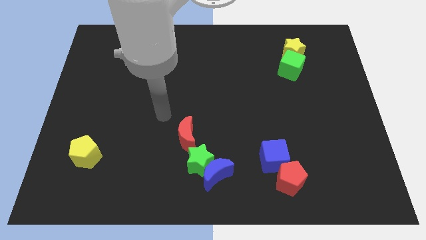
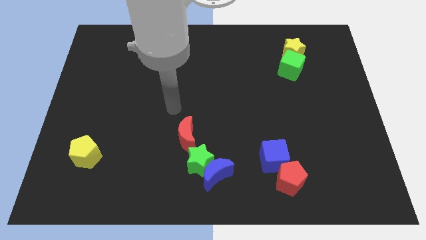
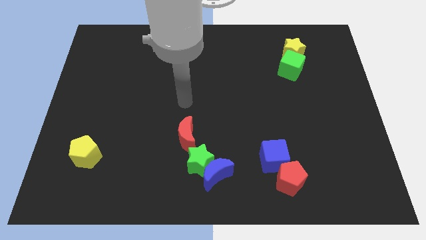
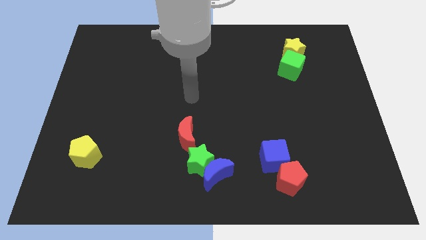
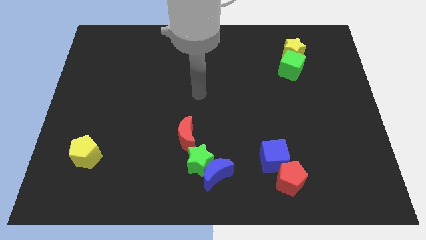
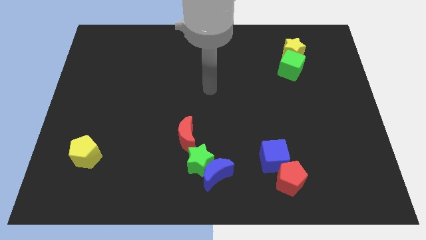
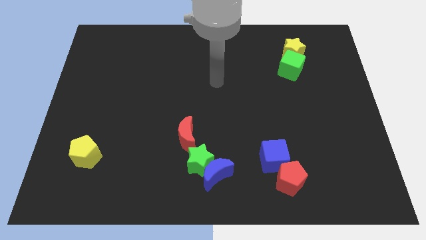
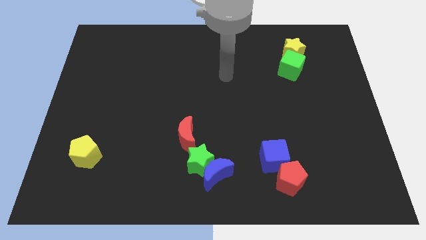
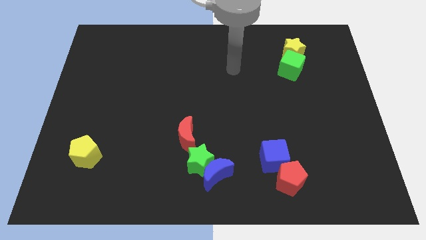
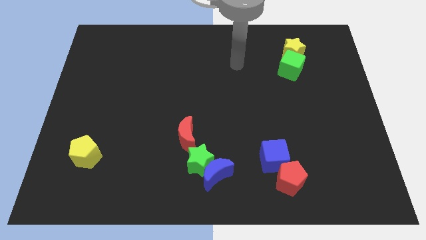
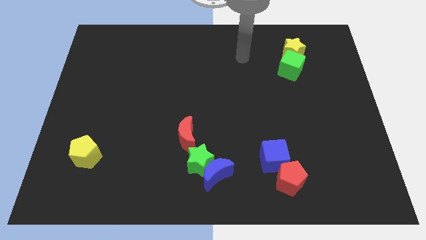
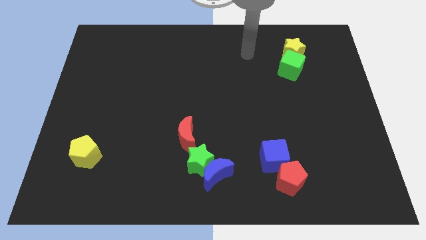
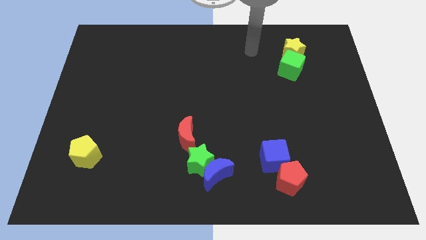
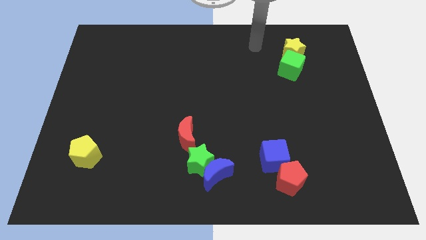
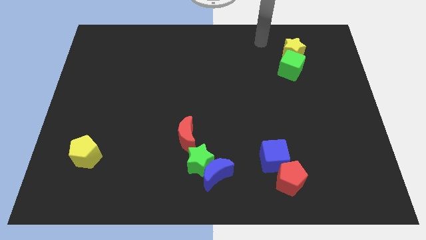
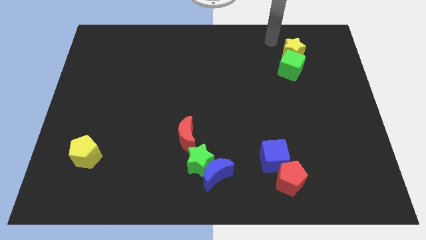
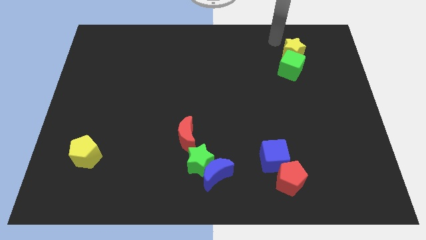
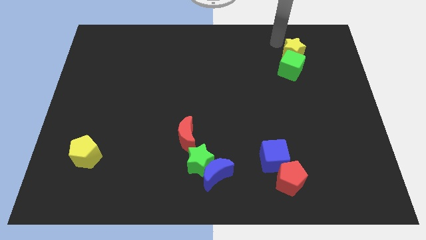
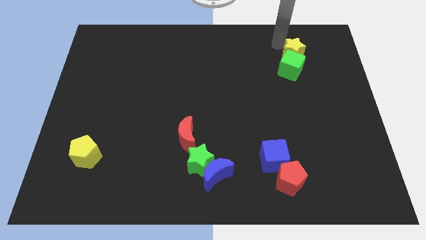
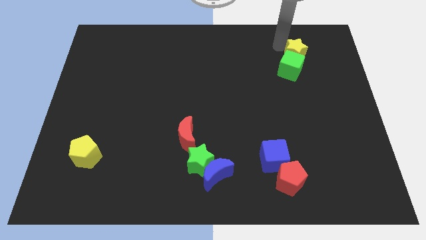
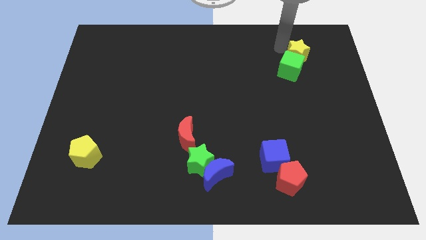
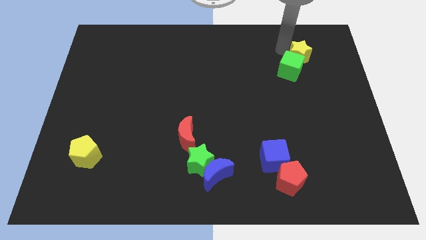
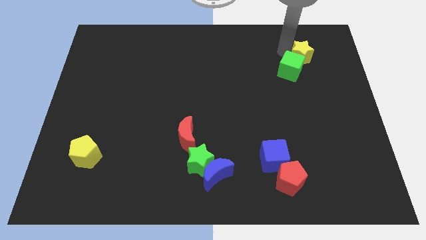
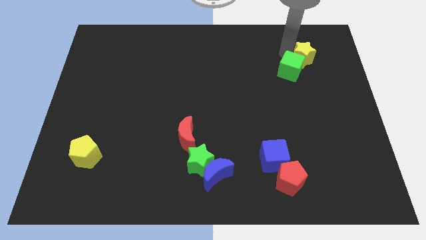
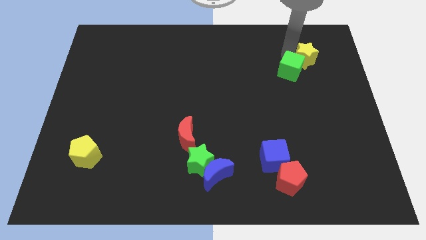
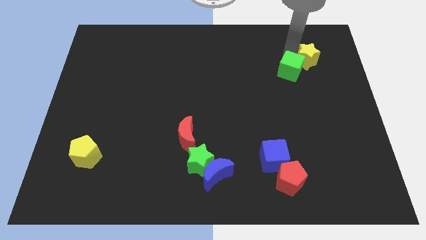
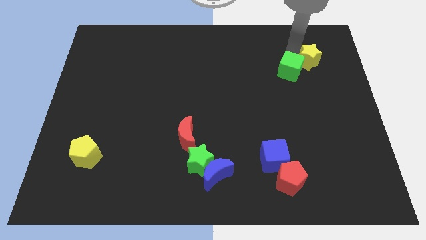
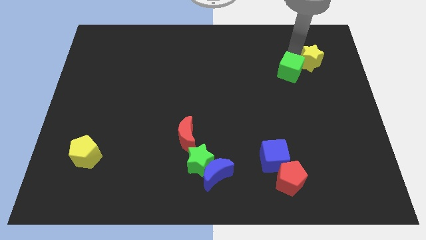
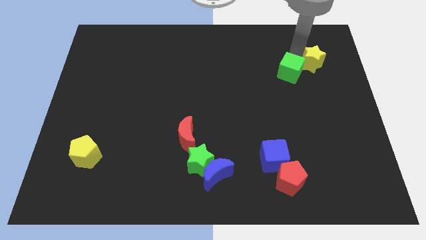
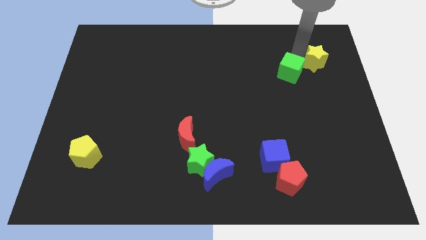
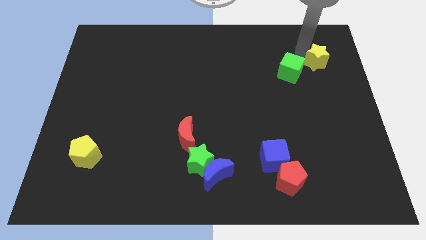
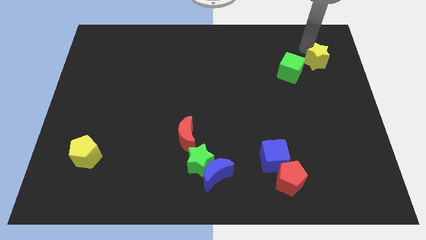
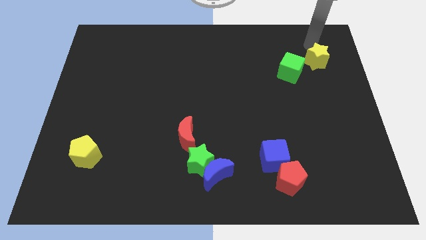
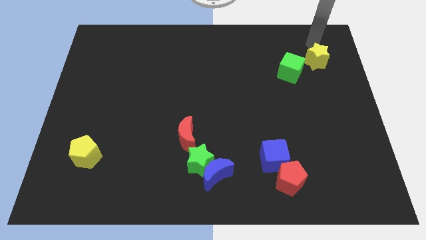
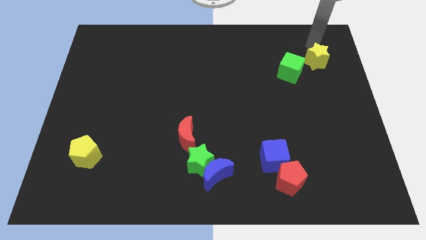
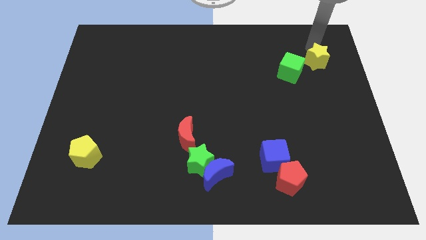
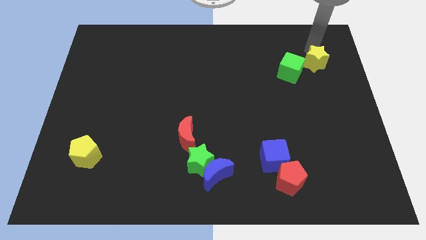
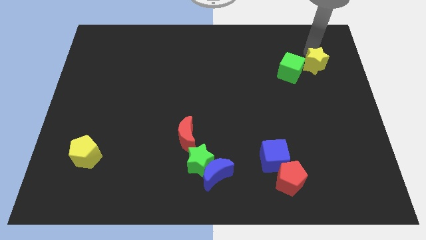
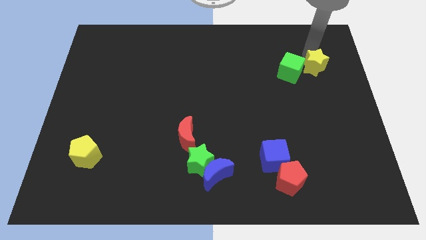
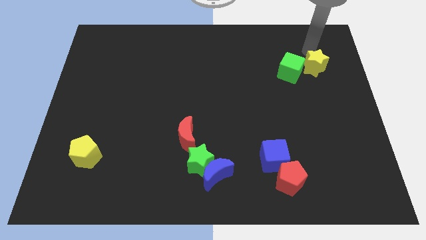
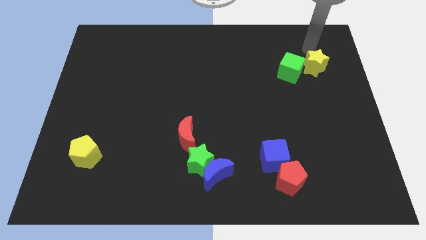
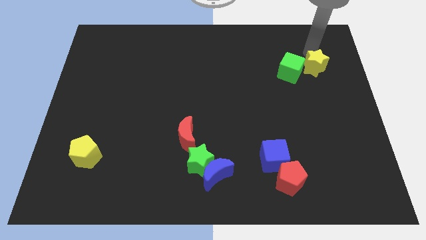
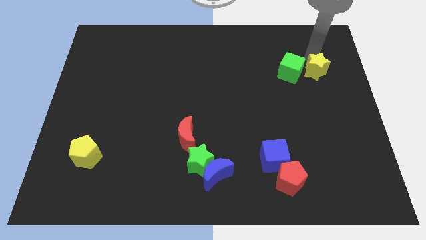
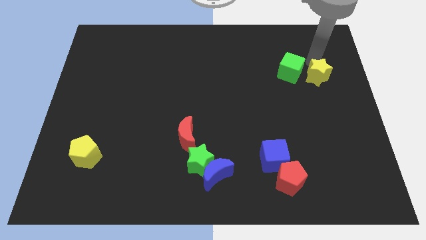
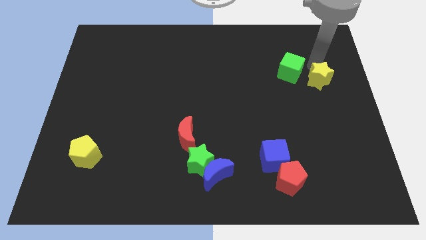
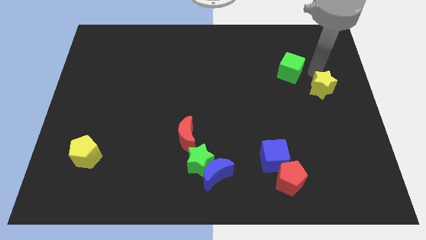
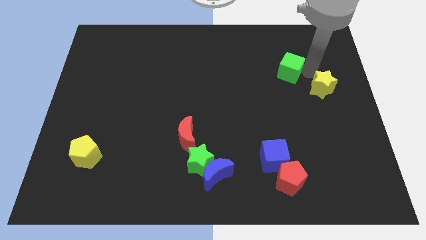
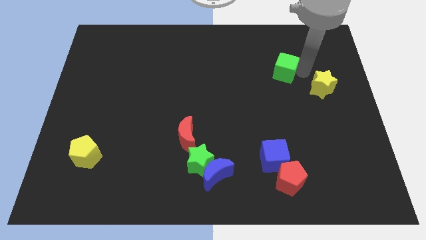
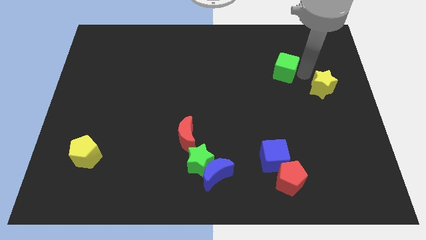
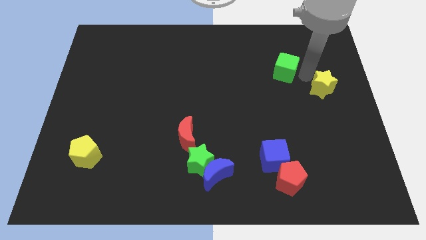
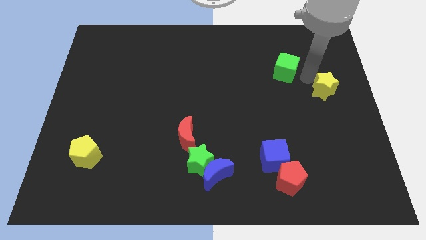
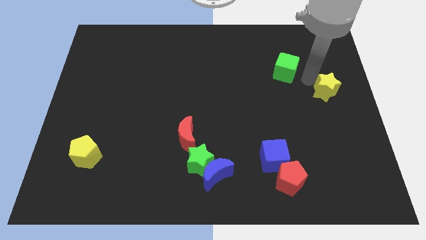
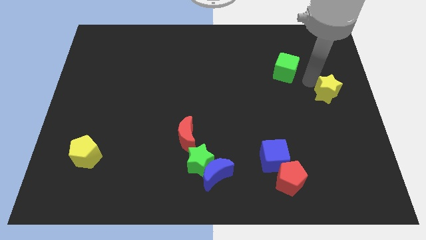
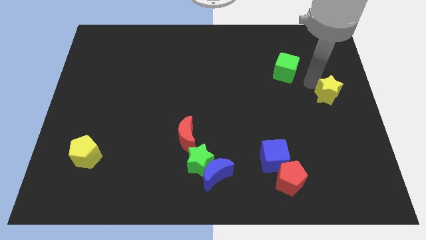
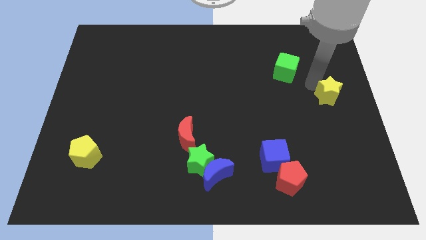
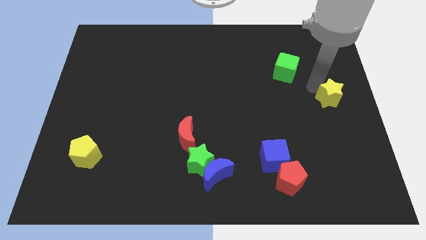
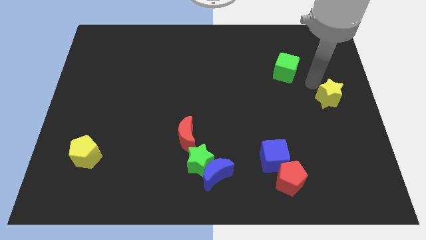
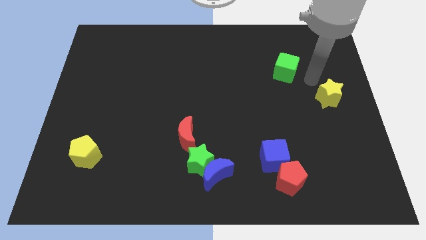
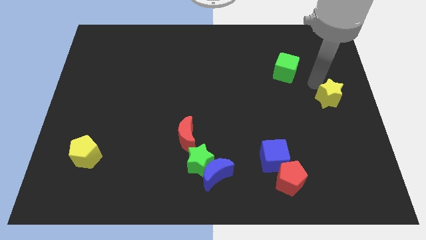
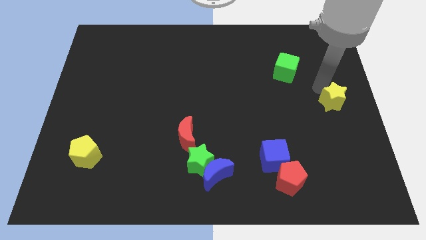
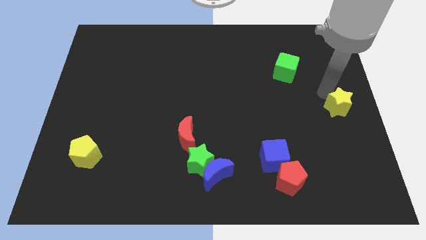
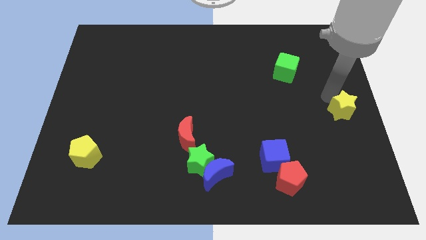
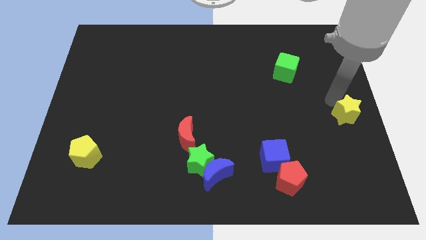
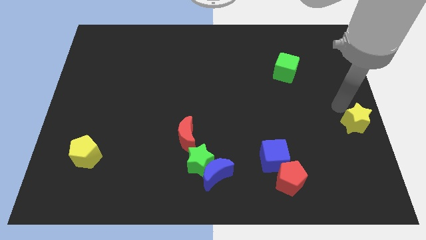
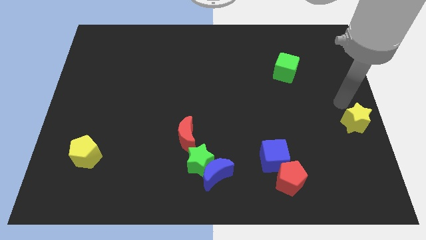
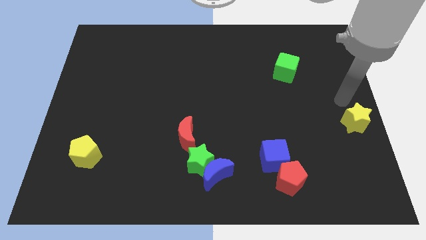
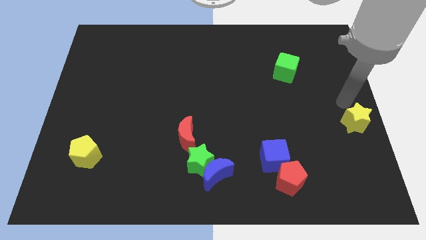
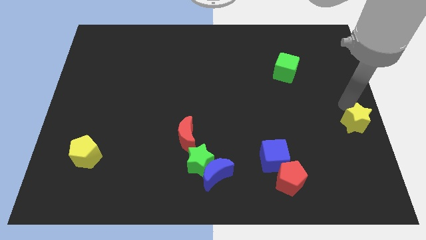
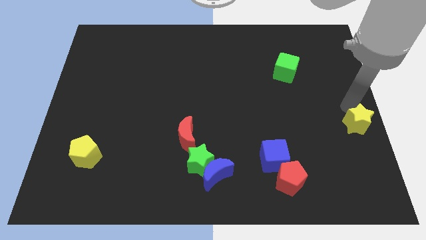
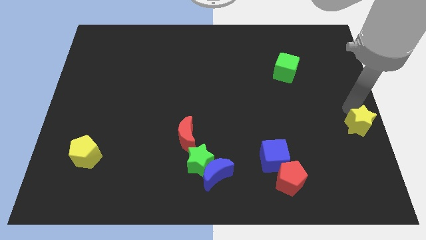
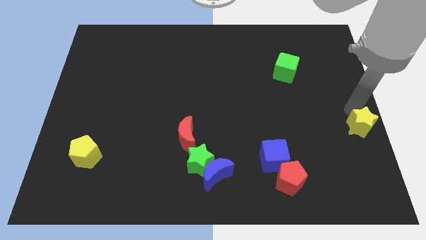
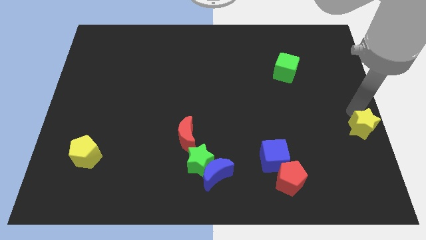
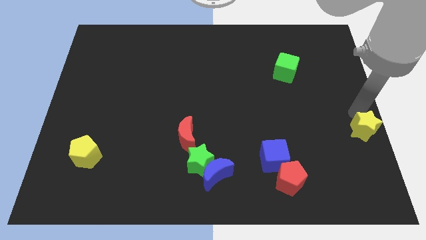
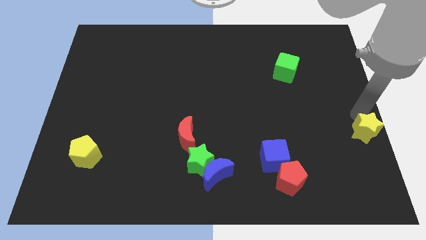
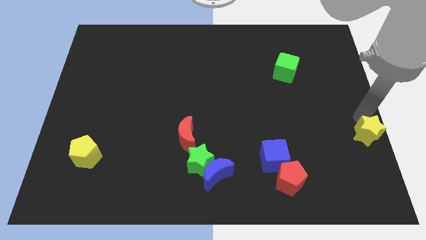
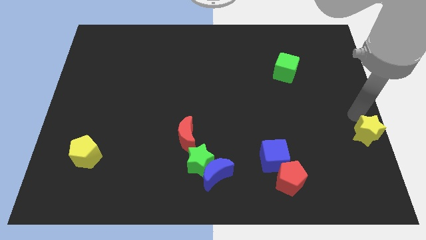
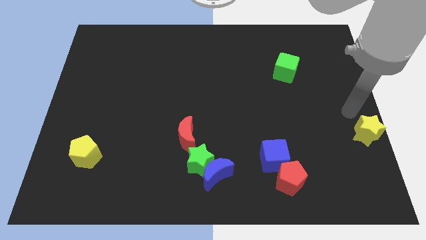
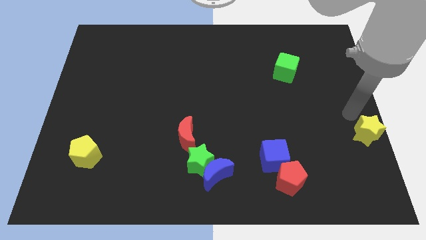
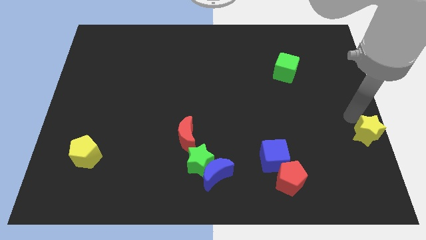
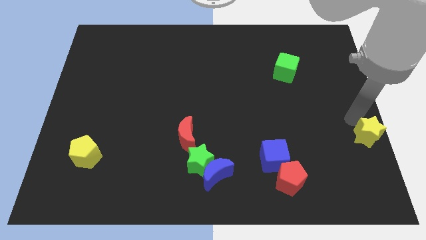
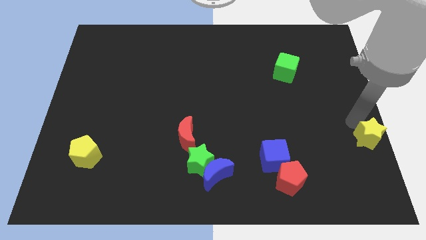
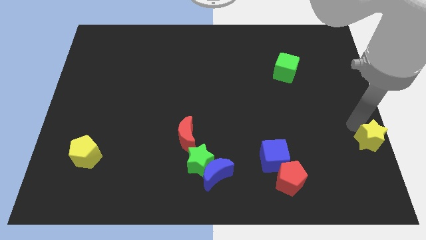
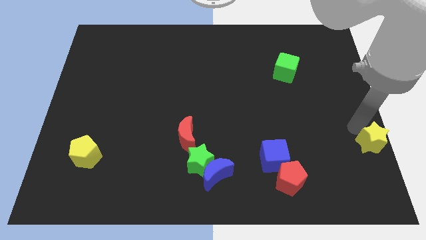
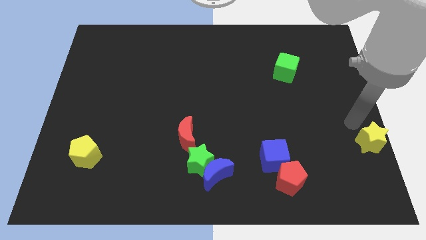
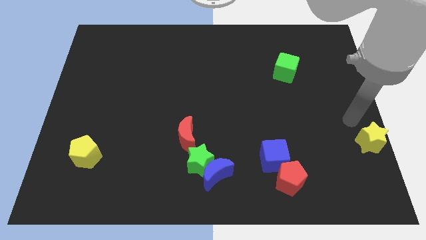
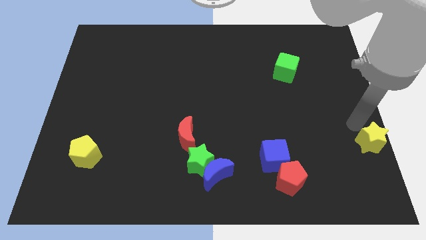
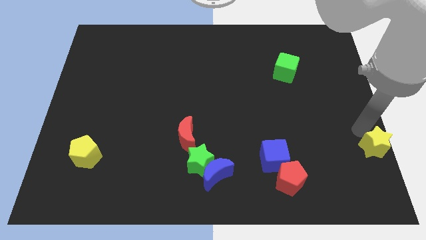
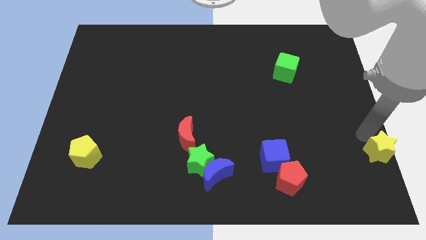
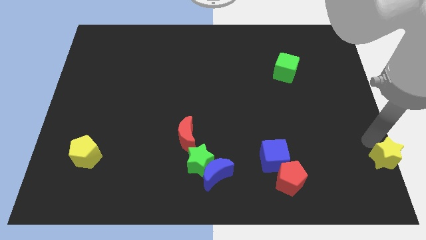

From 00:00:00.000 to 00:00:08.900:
move the yellow star to the bottom right corner
